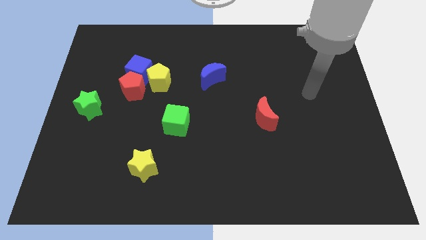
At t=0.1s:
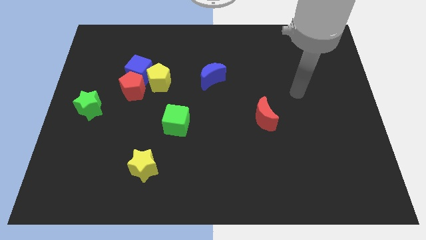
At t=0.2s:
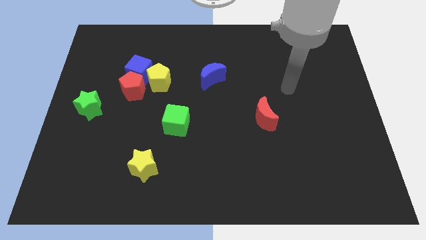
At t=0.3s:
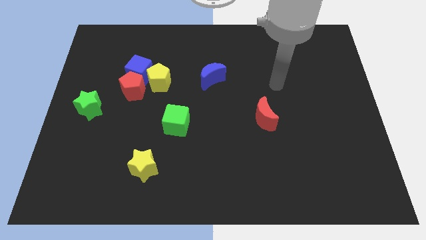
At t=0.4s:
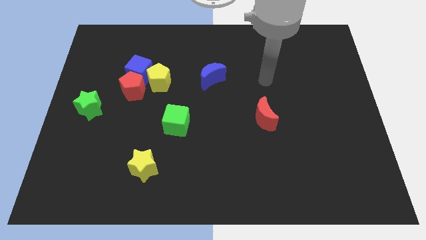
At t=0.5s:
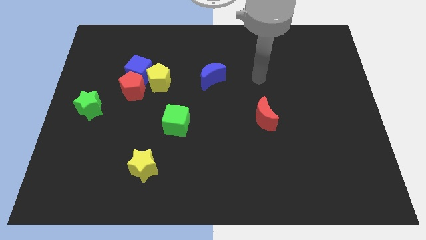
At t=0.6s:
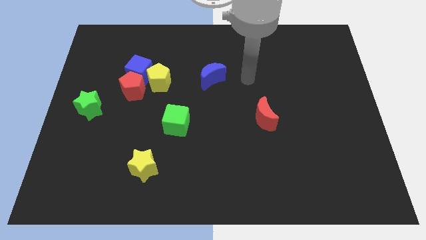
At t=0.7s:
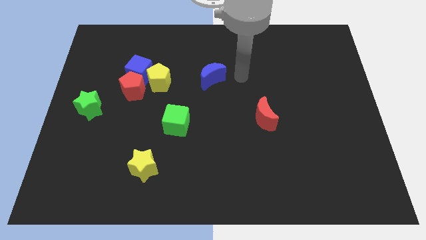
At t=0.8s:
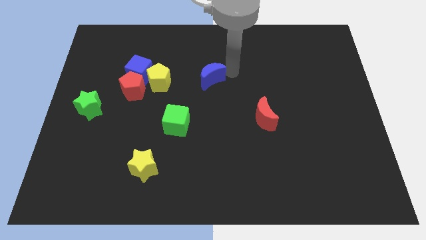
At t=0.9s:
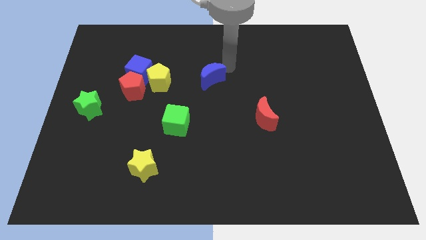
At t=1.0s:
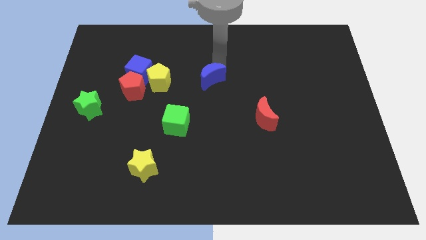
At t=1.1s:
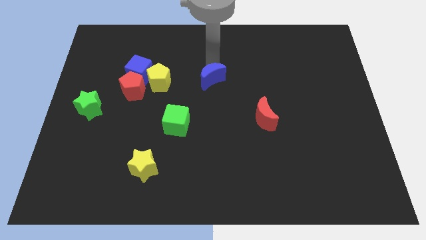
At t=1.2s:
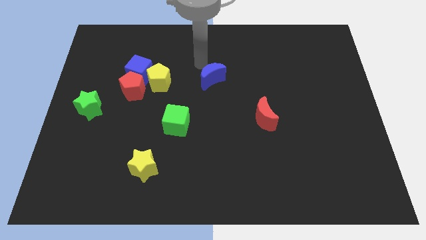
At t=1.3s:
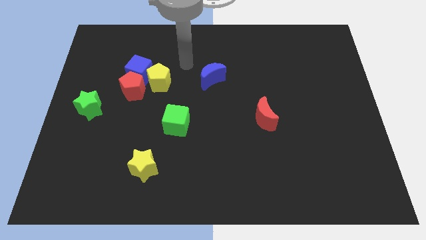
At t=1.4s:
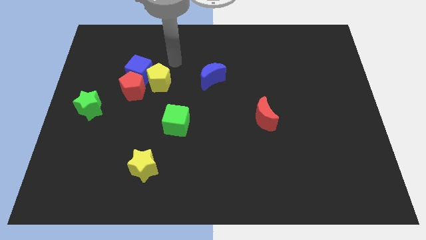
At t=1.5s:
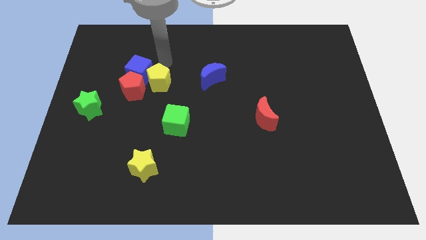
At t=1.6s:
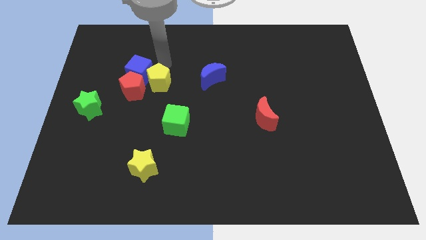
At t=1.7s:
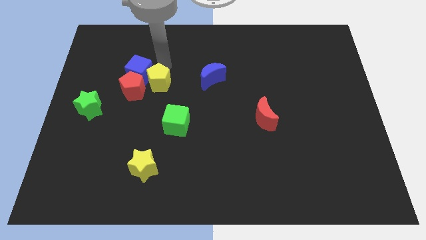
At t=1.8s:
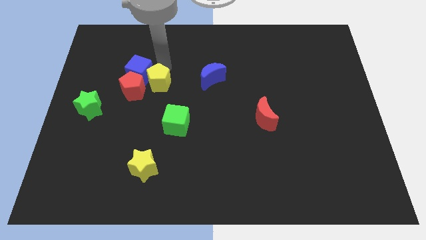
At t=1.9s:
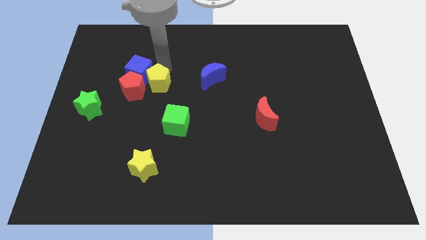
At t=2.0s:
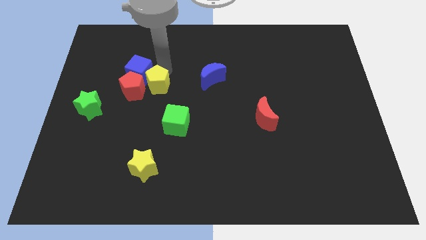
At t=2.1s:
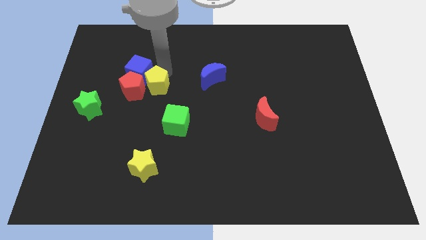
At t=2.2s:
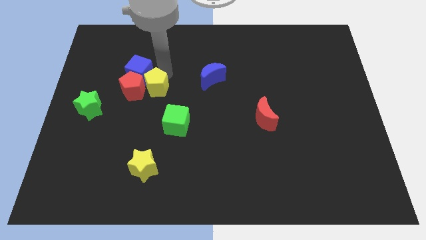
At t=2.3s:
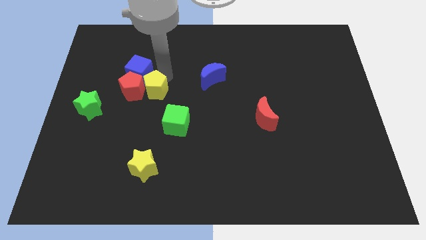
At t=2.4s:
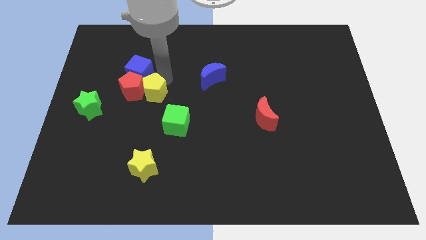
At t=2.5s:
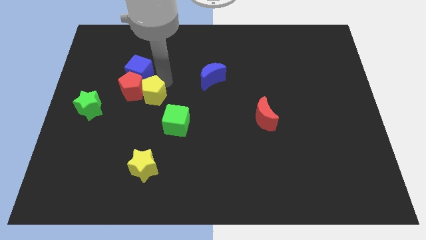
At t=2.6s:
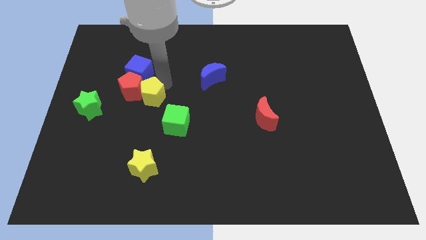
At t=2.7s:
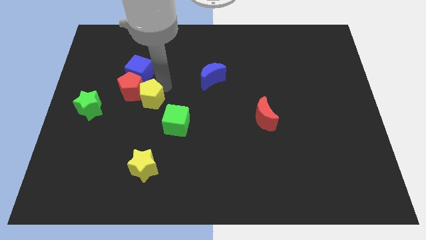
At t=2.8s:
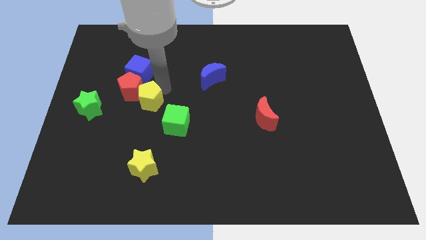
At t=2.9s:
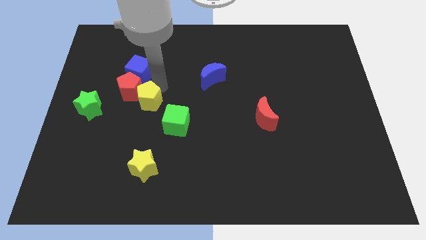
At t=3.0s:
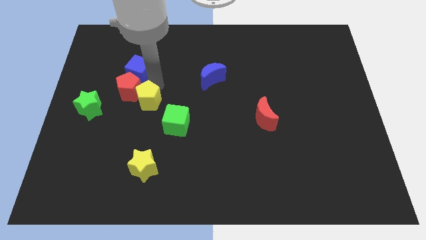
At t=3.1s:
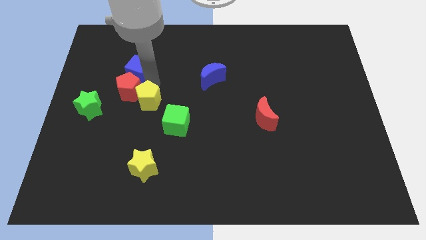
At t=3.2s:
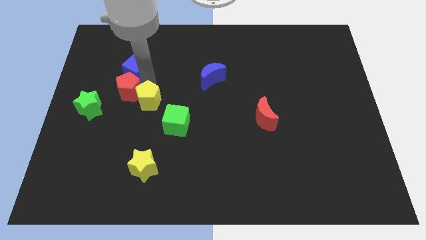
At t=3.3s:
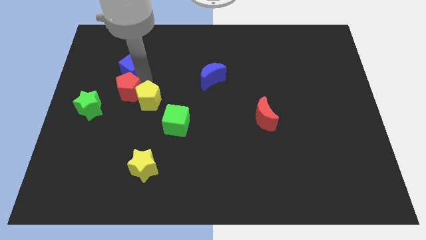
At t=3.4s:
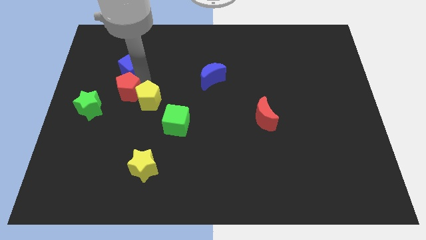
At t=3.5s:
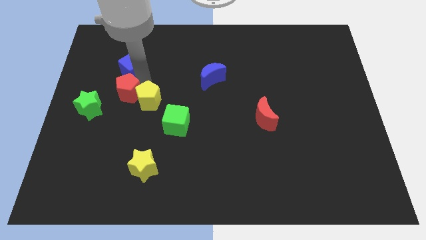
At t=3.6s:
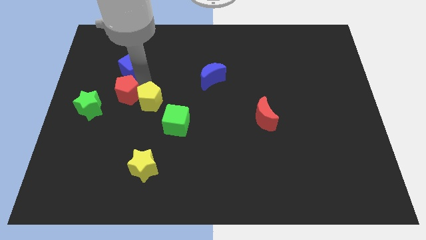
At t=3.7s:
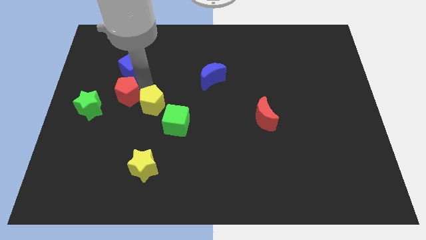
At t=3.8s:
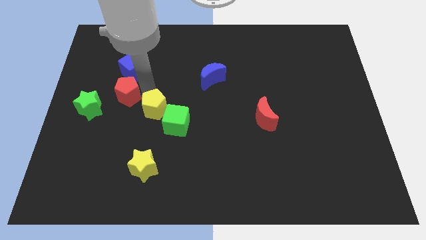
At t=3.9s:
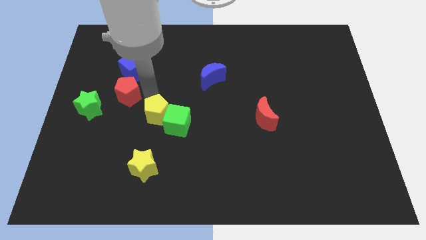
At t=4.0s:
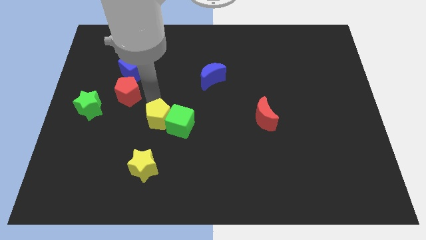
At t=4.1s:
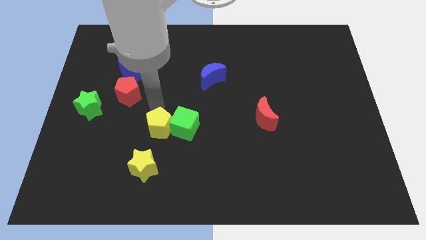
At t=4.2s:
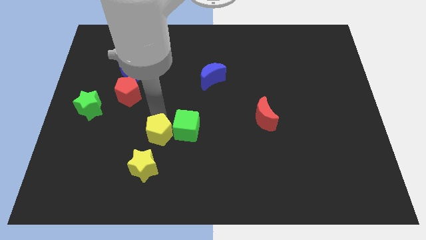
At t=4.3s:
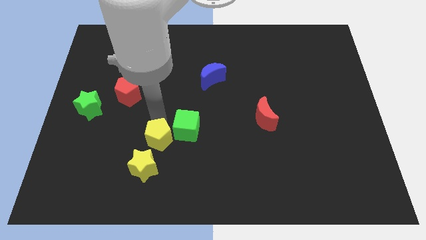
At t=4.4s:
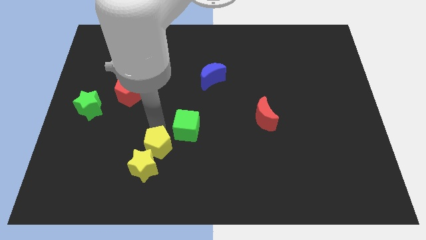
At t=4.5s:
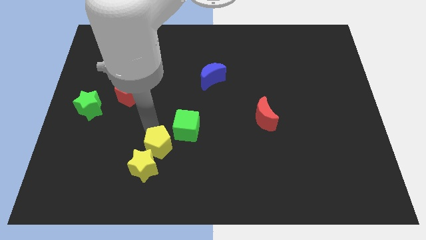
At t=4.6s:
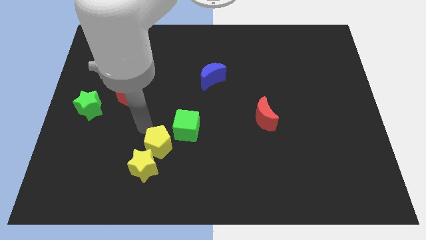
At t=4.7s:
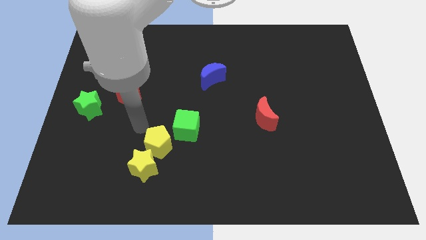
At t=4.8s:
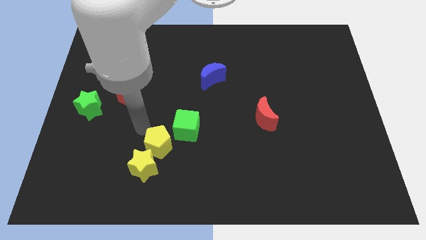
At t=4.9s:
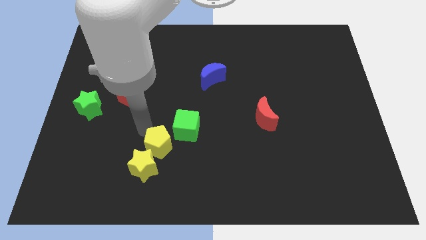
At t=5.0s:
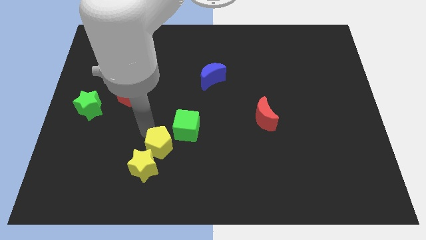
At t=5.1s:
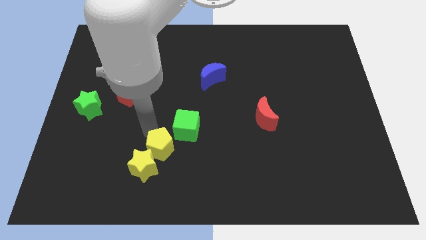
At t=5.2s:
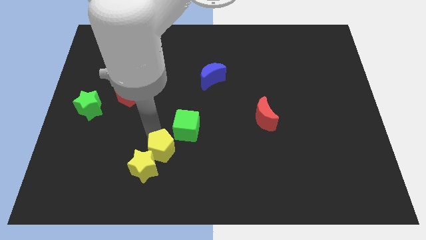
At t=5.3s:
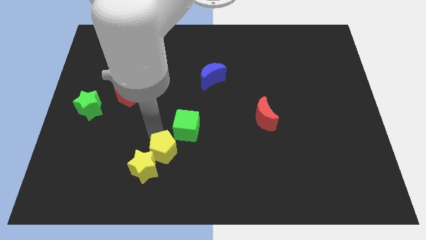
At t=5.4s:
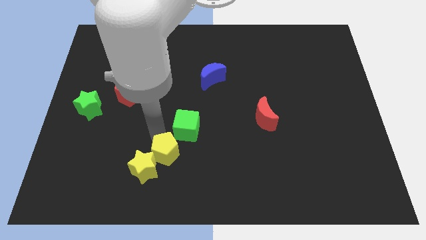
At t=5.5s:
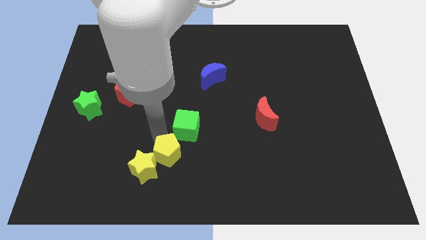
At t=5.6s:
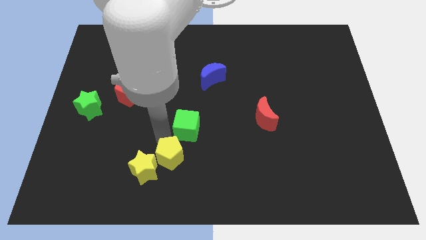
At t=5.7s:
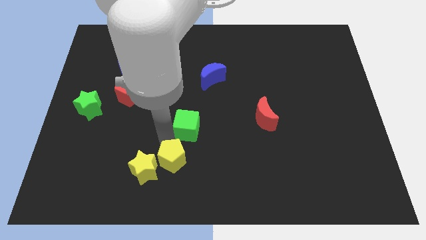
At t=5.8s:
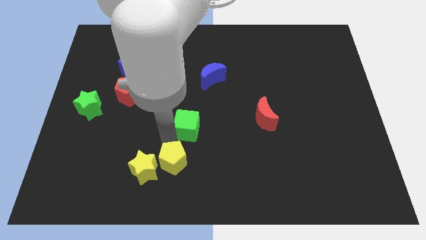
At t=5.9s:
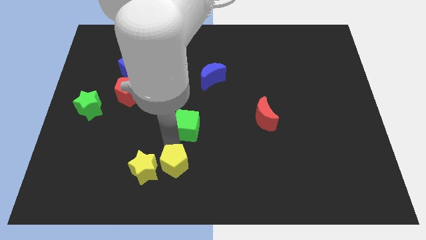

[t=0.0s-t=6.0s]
move the yellow pentagon to the bottom side
